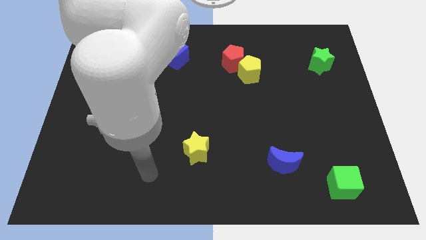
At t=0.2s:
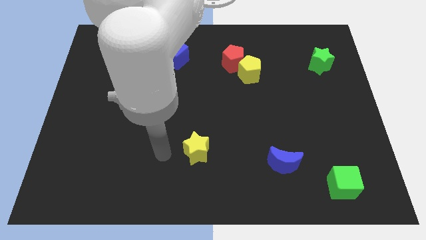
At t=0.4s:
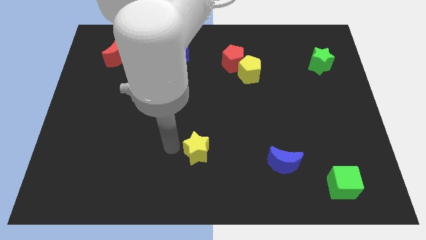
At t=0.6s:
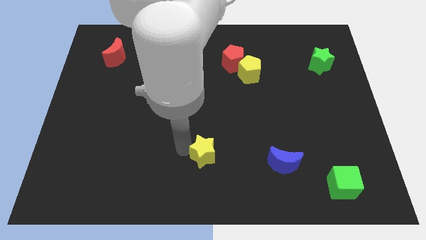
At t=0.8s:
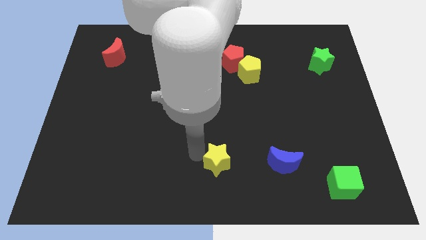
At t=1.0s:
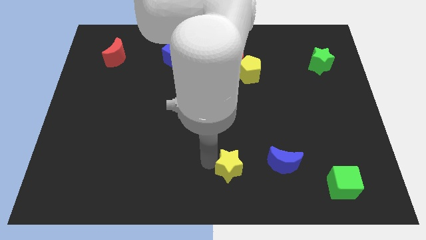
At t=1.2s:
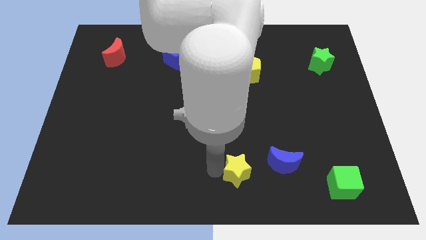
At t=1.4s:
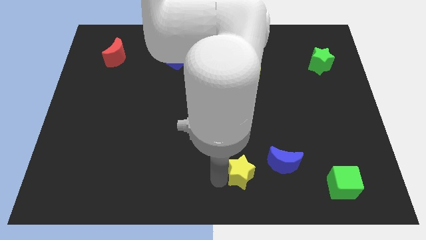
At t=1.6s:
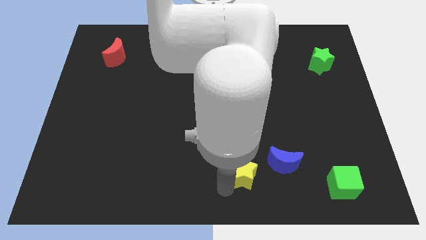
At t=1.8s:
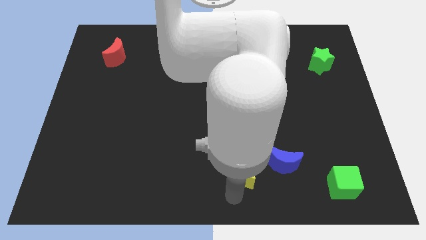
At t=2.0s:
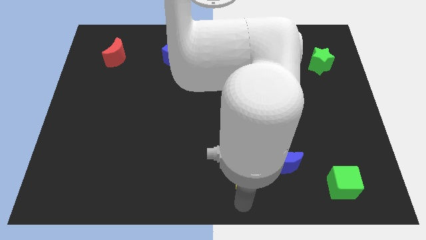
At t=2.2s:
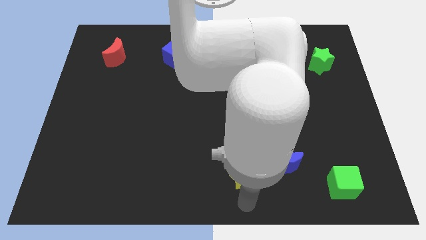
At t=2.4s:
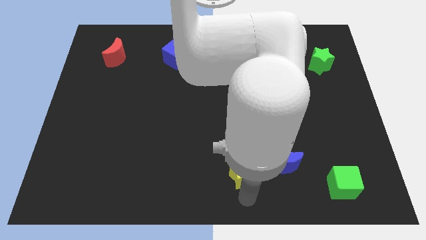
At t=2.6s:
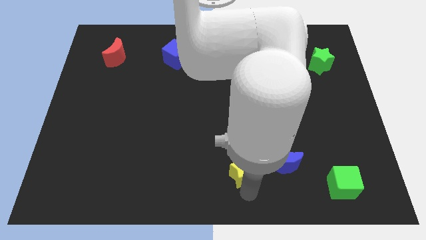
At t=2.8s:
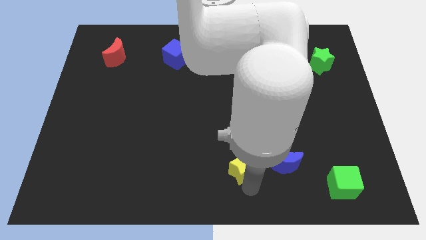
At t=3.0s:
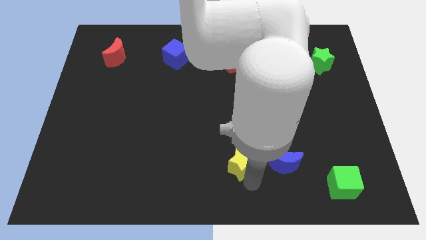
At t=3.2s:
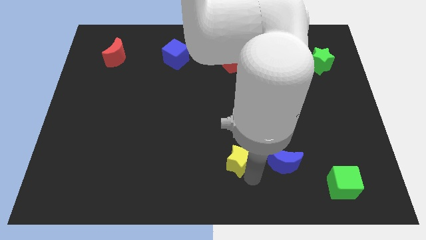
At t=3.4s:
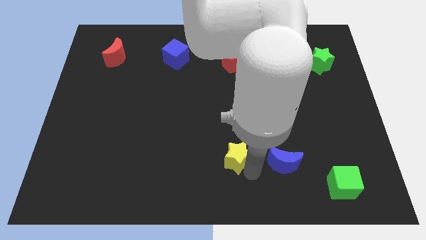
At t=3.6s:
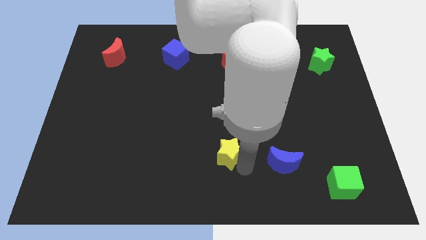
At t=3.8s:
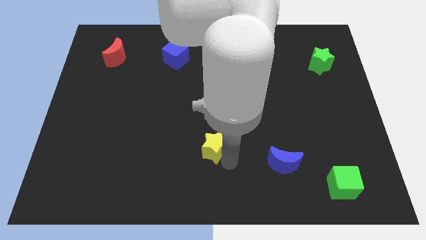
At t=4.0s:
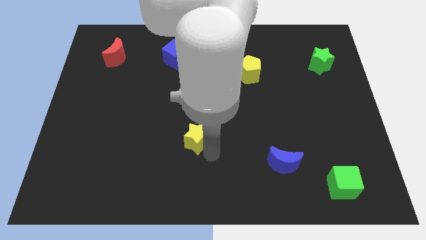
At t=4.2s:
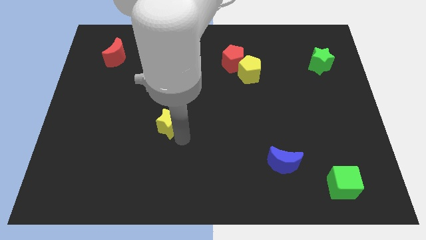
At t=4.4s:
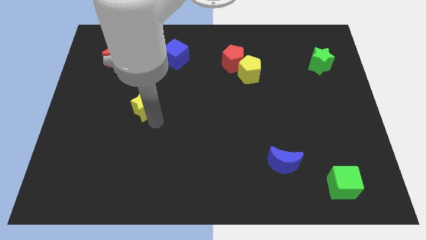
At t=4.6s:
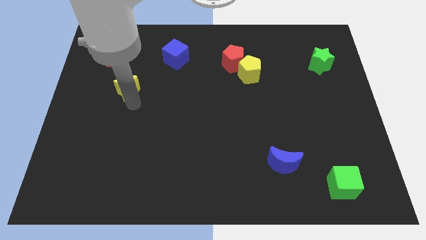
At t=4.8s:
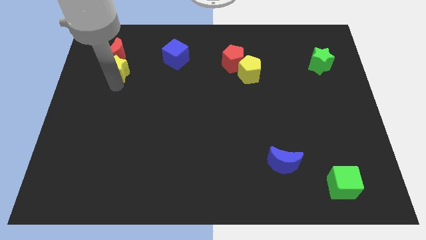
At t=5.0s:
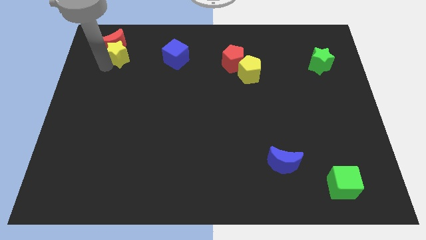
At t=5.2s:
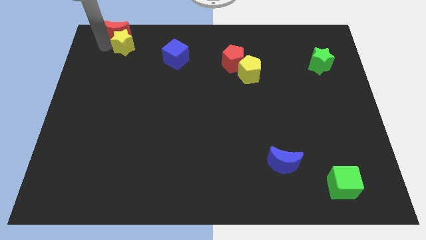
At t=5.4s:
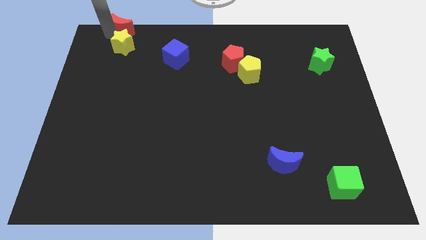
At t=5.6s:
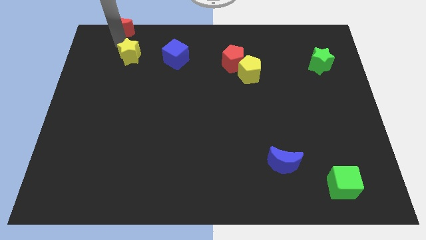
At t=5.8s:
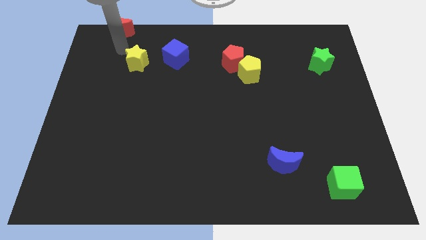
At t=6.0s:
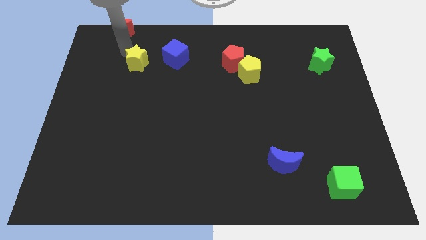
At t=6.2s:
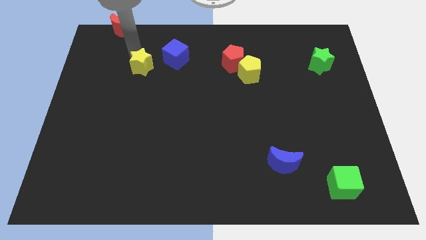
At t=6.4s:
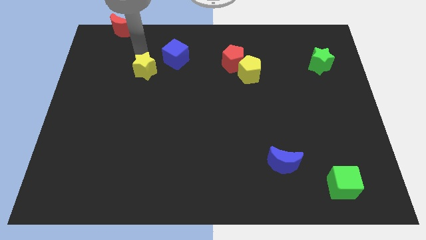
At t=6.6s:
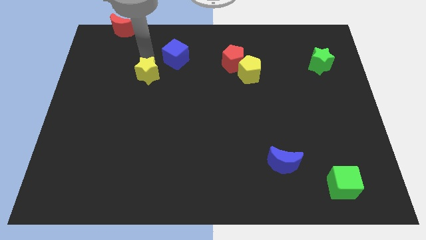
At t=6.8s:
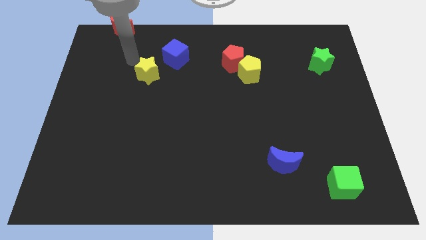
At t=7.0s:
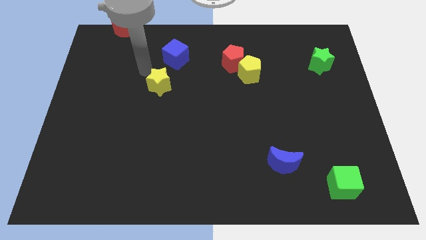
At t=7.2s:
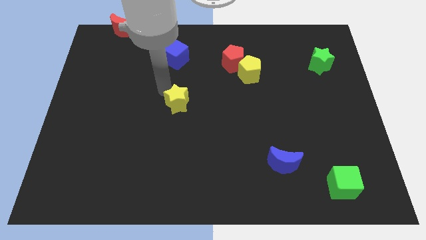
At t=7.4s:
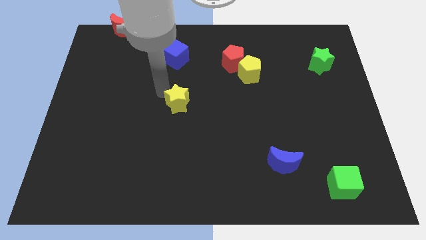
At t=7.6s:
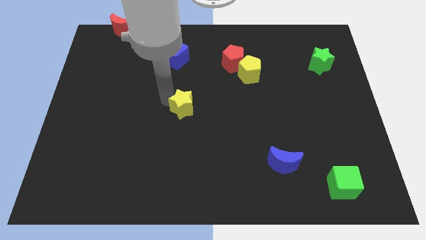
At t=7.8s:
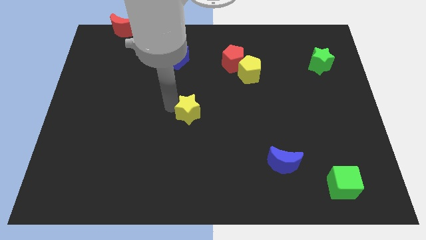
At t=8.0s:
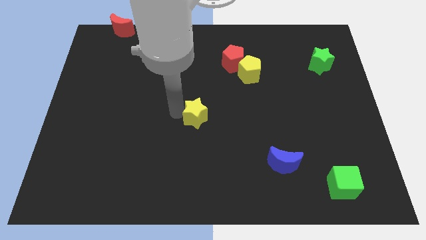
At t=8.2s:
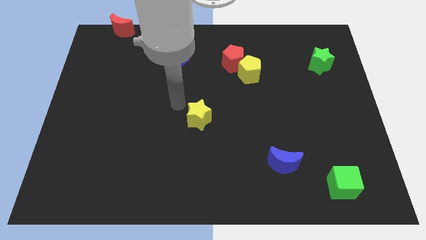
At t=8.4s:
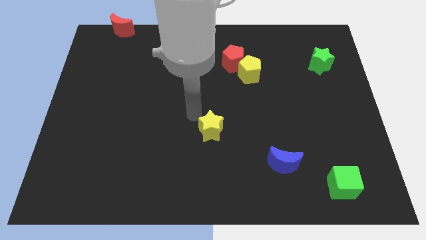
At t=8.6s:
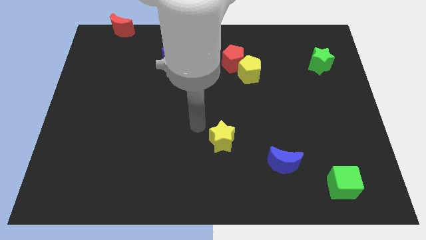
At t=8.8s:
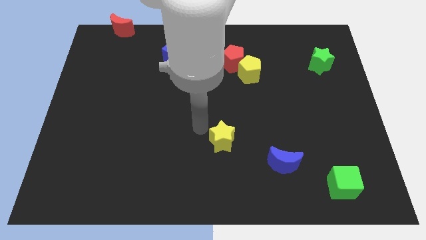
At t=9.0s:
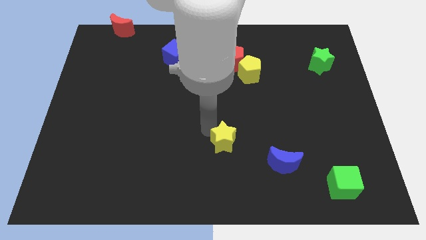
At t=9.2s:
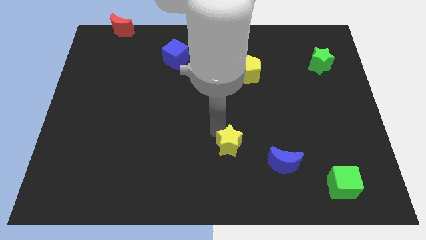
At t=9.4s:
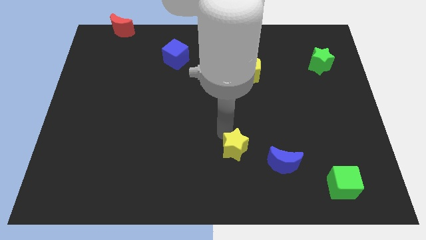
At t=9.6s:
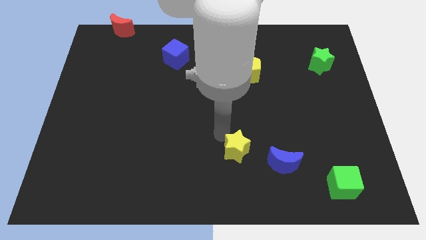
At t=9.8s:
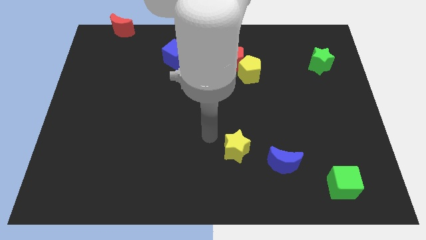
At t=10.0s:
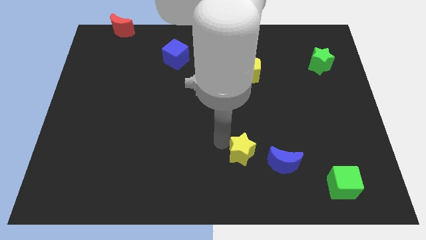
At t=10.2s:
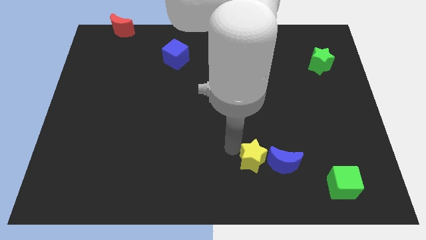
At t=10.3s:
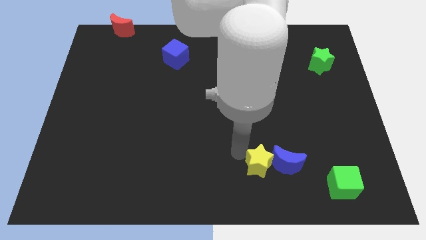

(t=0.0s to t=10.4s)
slide the yellow star next to the blue moon

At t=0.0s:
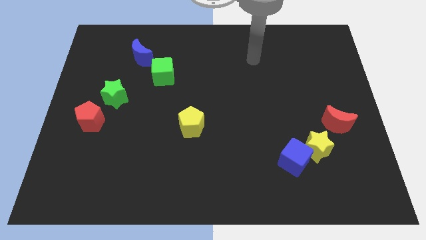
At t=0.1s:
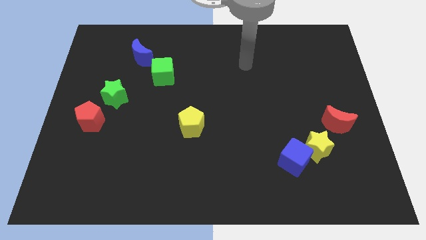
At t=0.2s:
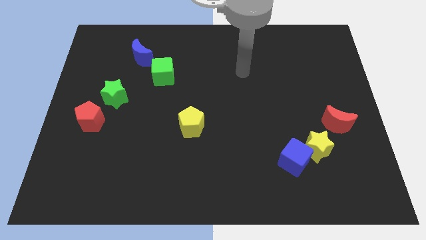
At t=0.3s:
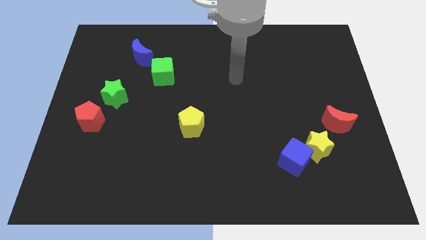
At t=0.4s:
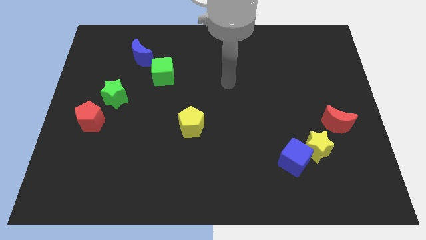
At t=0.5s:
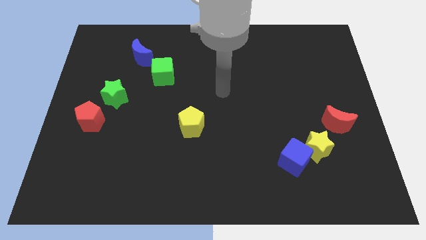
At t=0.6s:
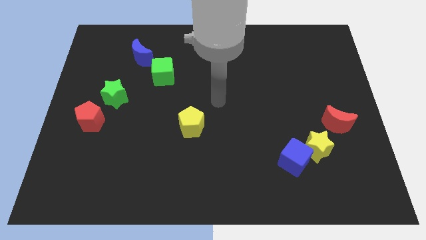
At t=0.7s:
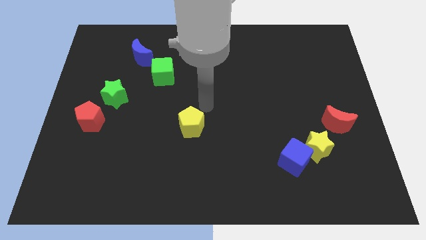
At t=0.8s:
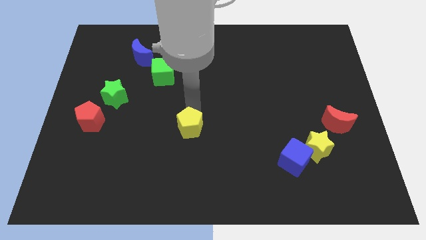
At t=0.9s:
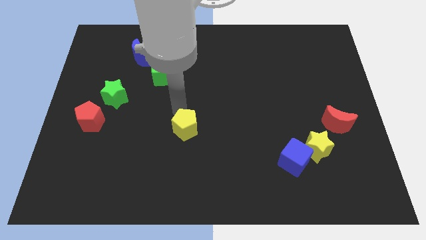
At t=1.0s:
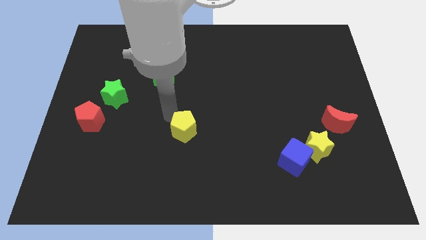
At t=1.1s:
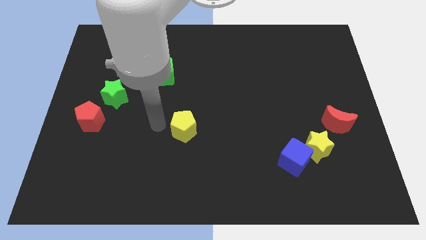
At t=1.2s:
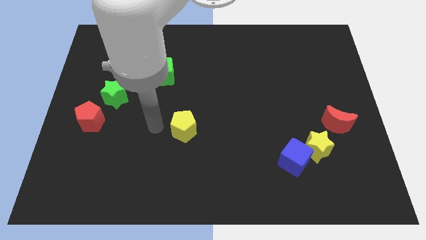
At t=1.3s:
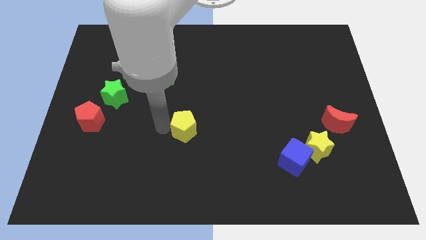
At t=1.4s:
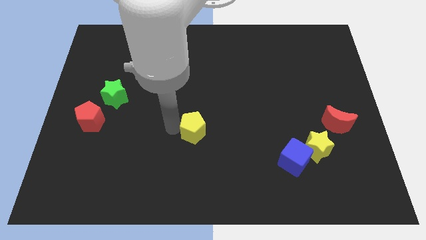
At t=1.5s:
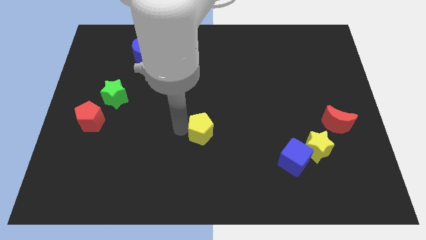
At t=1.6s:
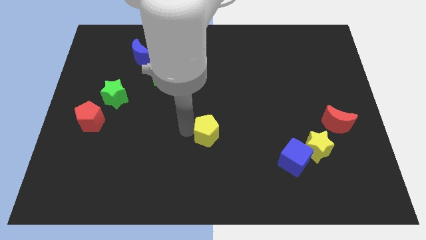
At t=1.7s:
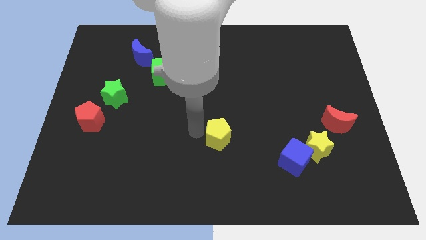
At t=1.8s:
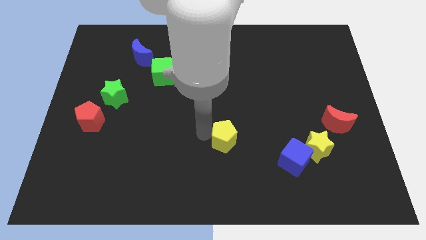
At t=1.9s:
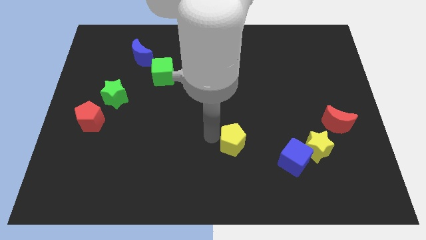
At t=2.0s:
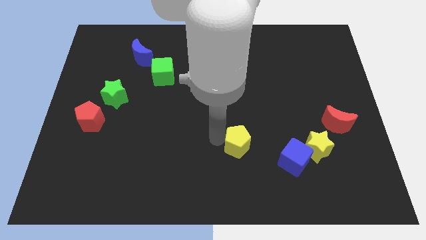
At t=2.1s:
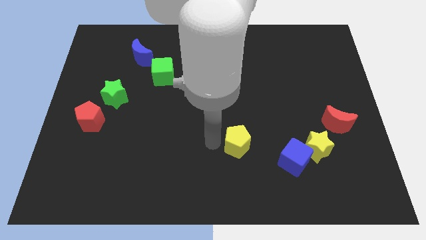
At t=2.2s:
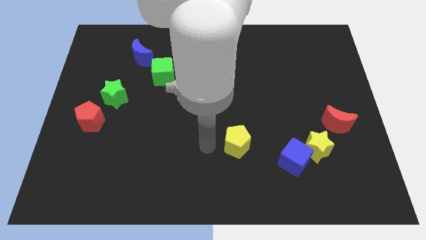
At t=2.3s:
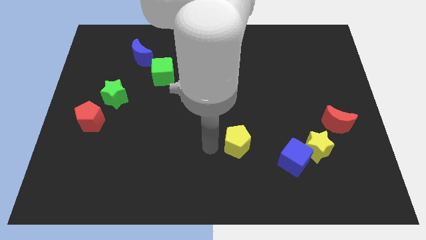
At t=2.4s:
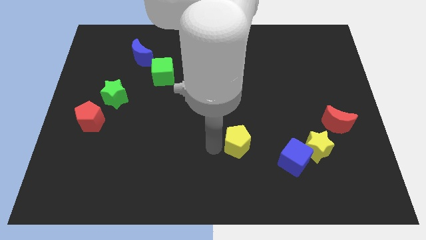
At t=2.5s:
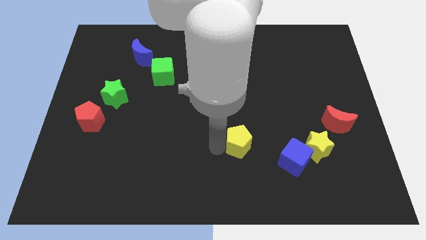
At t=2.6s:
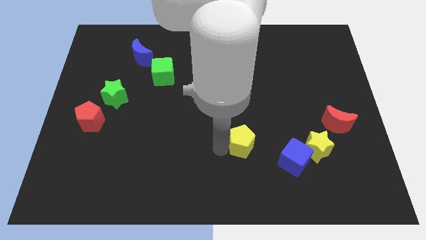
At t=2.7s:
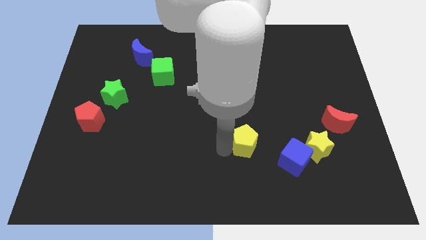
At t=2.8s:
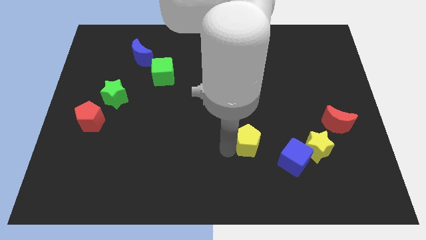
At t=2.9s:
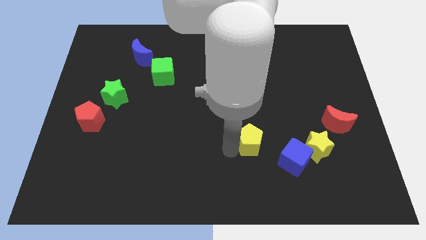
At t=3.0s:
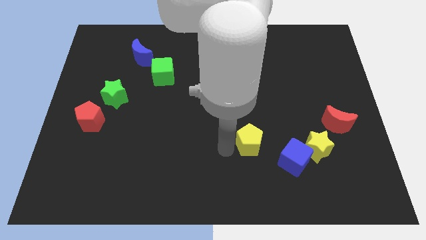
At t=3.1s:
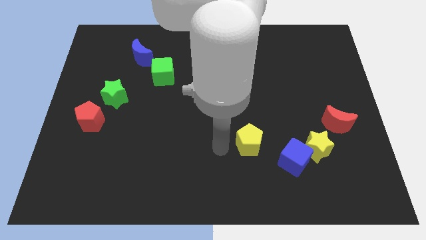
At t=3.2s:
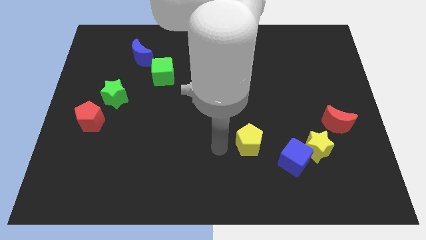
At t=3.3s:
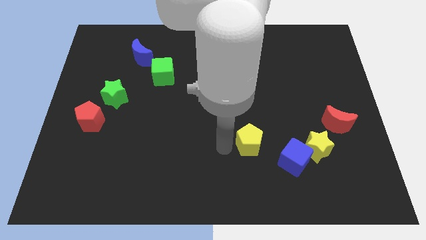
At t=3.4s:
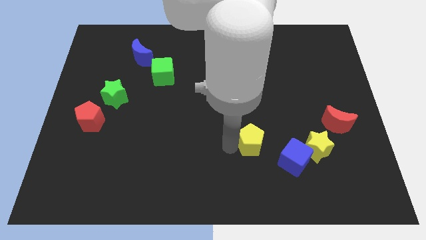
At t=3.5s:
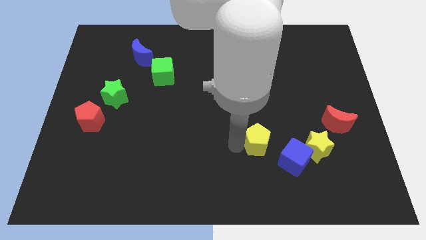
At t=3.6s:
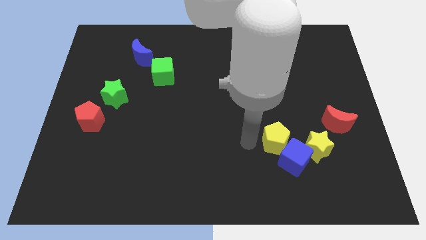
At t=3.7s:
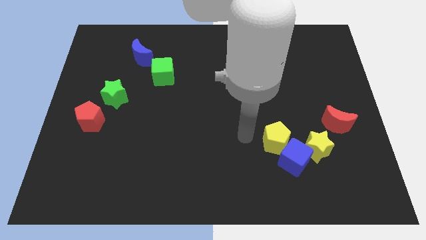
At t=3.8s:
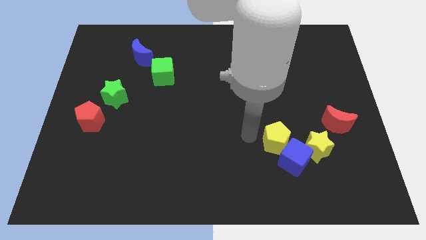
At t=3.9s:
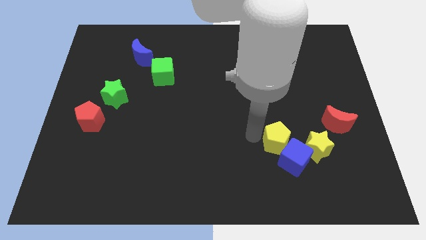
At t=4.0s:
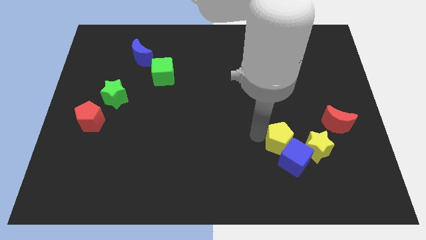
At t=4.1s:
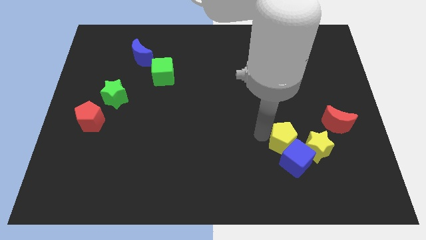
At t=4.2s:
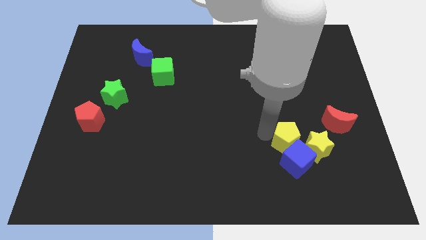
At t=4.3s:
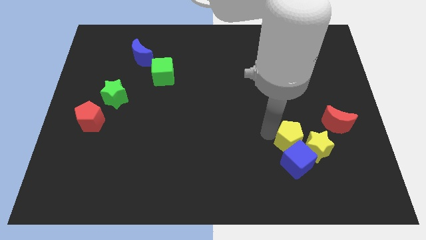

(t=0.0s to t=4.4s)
move the yellow pentagon close to the yellow star
